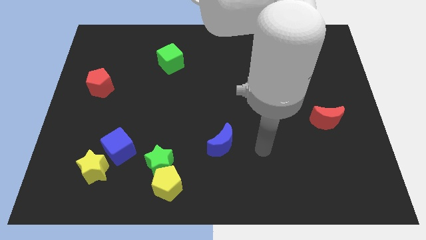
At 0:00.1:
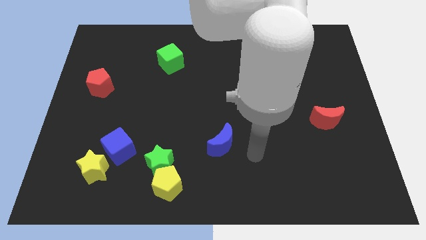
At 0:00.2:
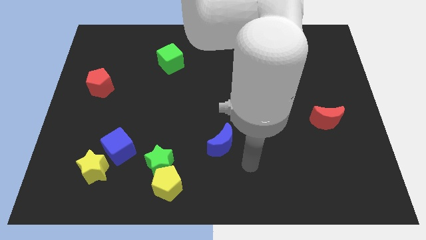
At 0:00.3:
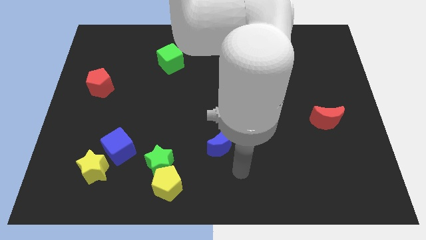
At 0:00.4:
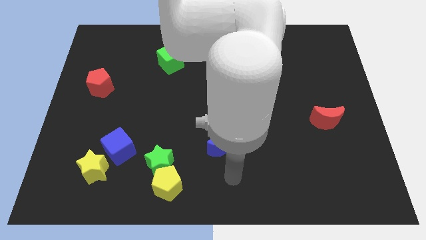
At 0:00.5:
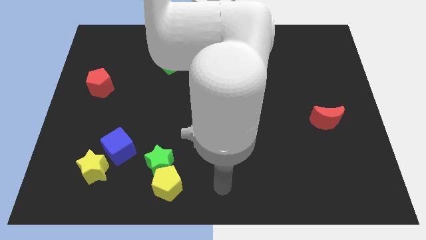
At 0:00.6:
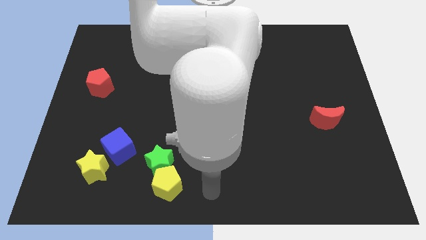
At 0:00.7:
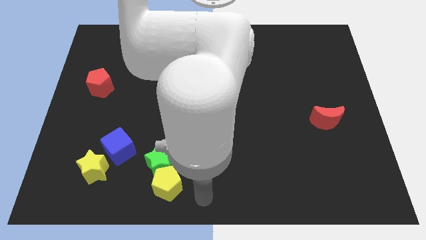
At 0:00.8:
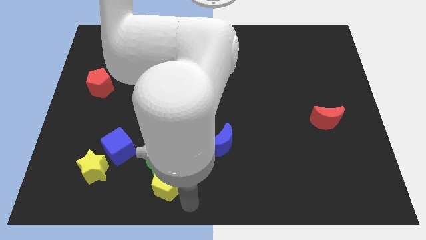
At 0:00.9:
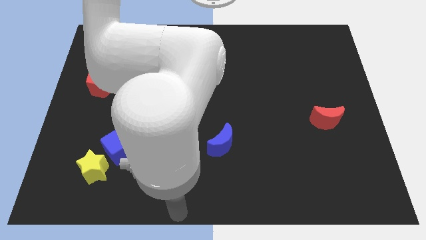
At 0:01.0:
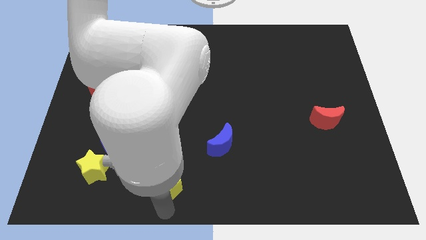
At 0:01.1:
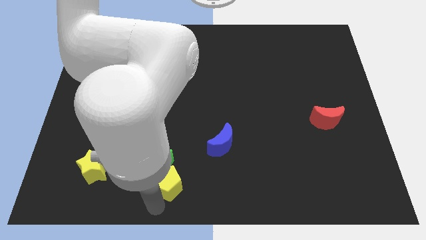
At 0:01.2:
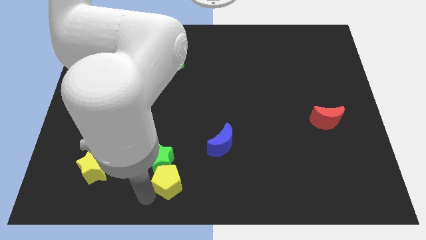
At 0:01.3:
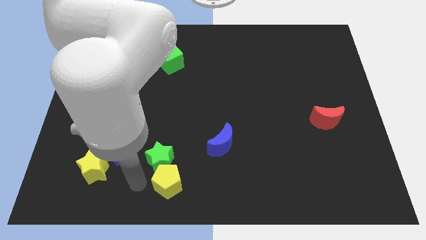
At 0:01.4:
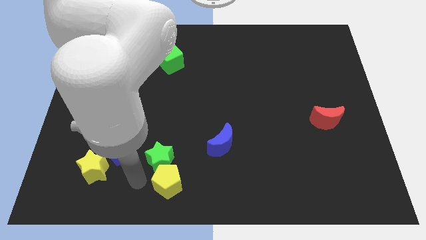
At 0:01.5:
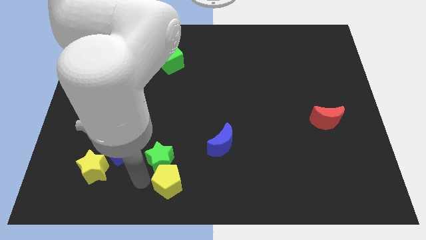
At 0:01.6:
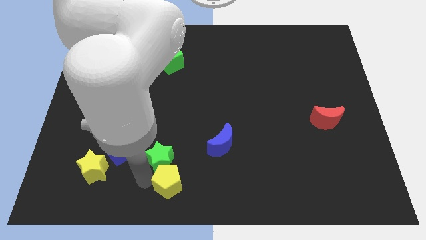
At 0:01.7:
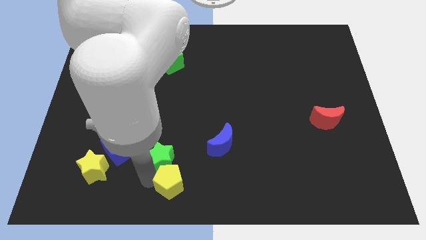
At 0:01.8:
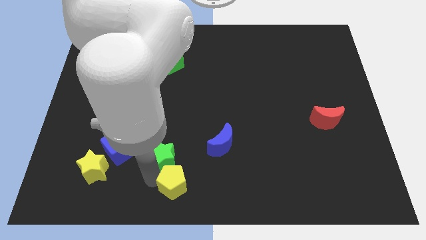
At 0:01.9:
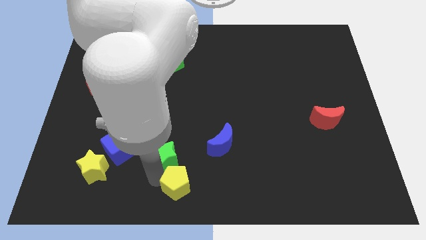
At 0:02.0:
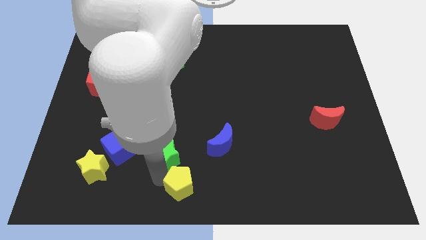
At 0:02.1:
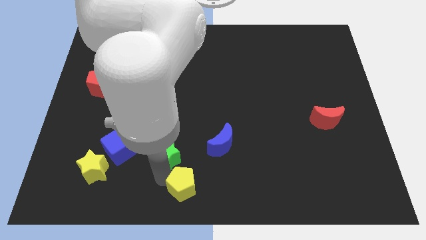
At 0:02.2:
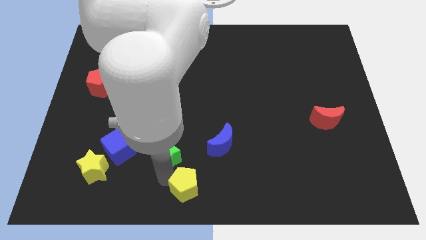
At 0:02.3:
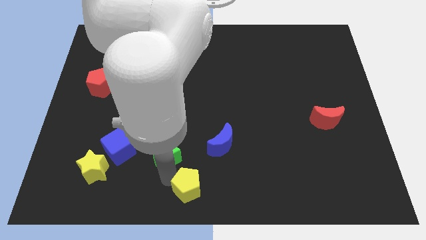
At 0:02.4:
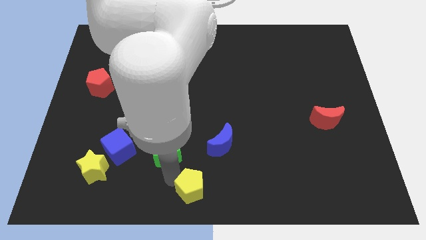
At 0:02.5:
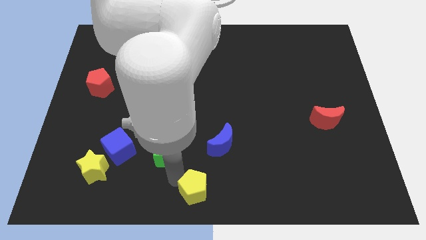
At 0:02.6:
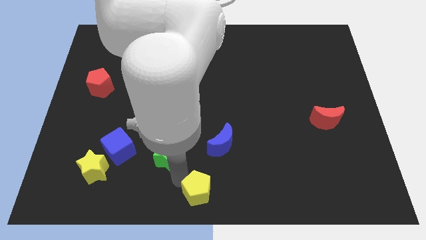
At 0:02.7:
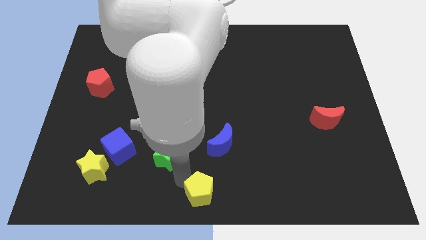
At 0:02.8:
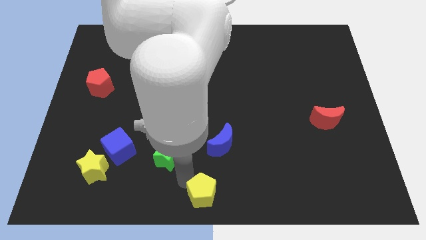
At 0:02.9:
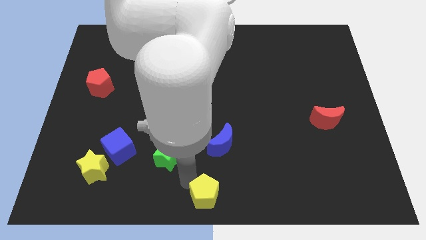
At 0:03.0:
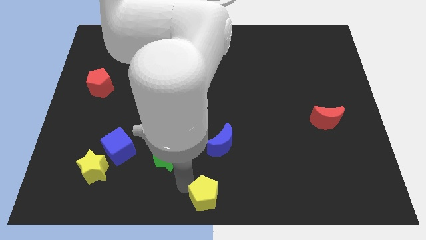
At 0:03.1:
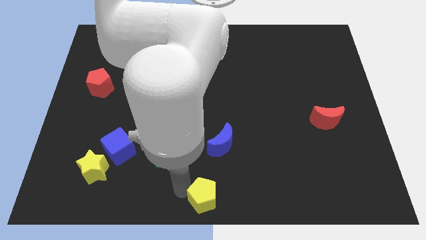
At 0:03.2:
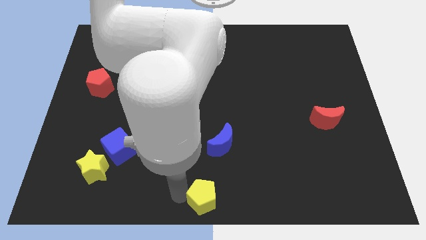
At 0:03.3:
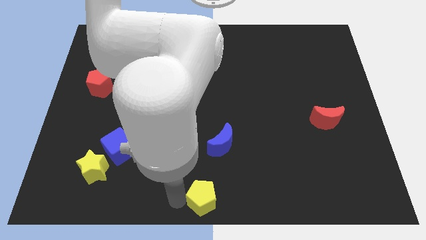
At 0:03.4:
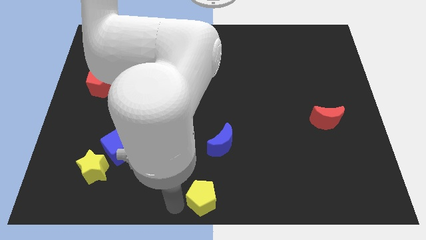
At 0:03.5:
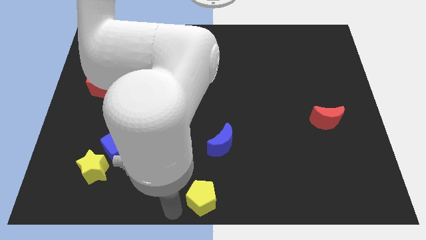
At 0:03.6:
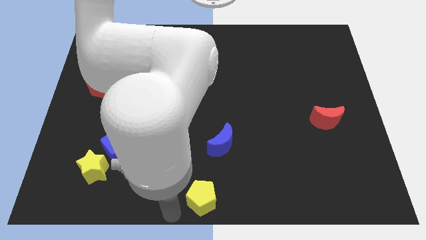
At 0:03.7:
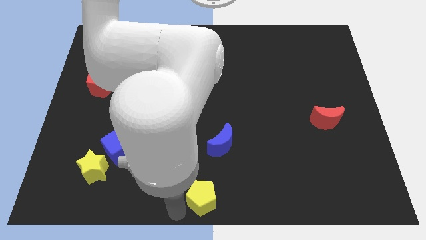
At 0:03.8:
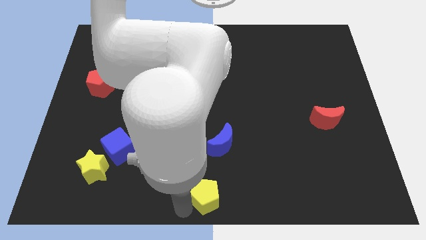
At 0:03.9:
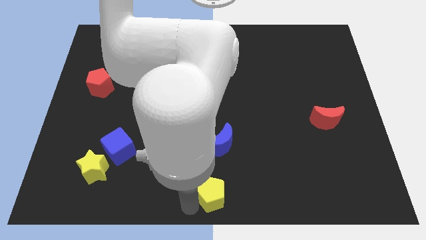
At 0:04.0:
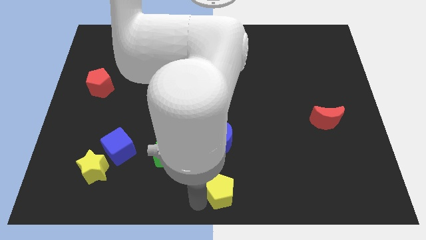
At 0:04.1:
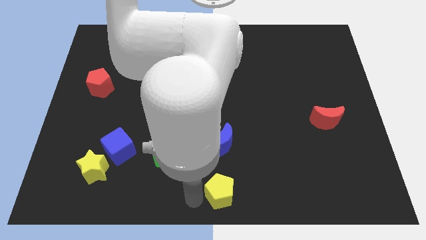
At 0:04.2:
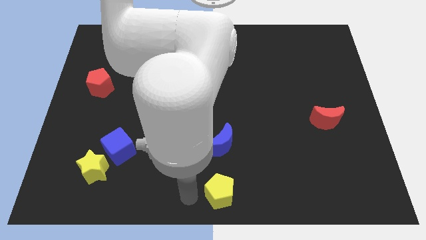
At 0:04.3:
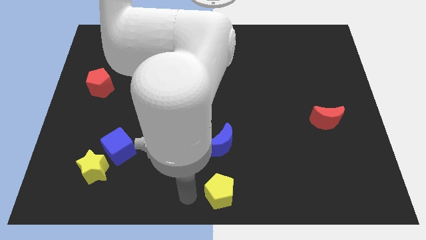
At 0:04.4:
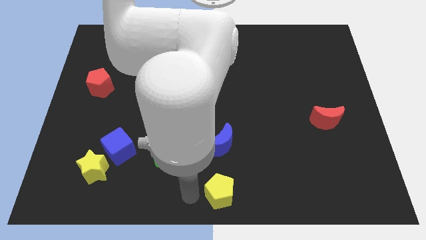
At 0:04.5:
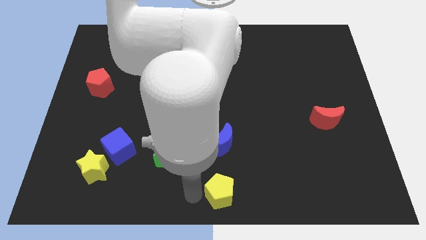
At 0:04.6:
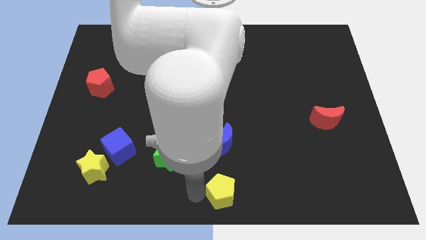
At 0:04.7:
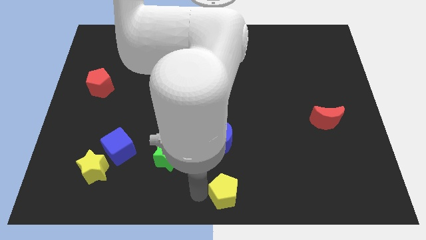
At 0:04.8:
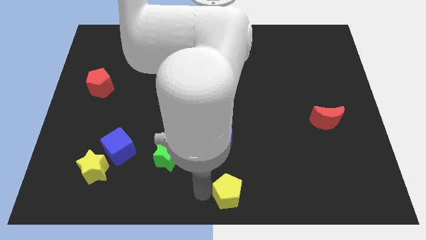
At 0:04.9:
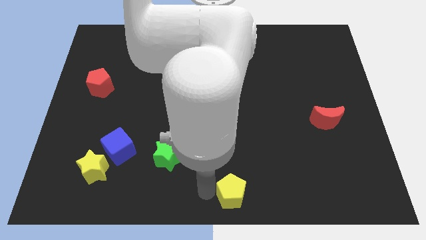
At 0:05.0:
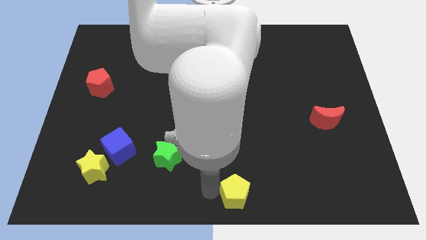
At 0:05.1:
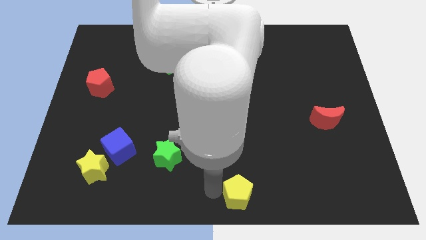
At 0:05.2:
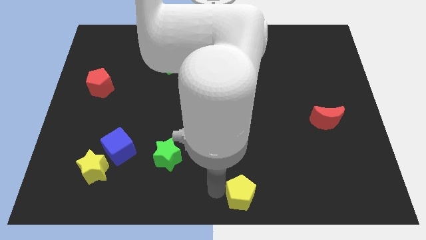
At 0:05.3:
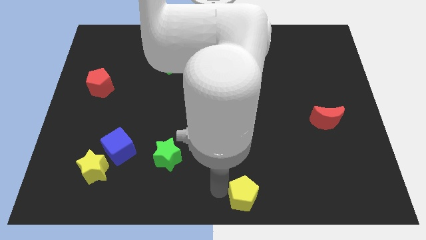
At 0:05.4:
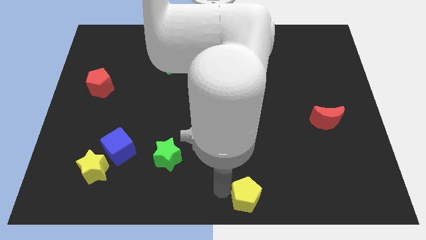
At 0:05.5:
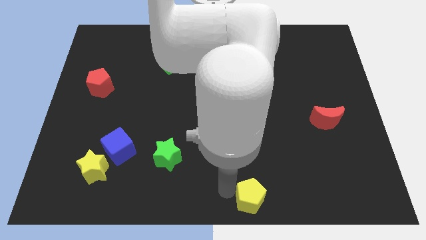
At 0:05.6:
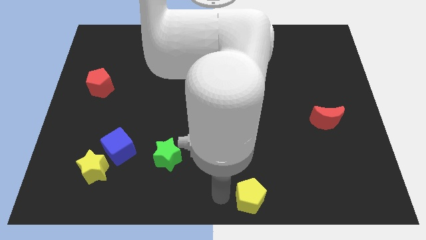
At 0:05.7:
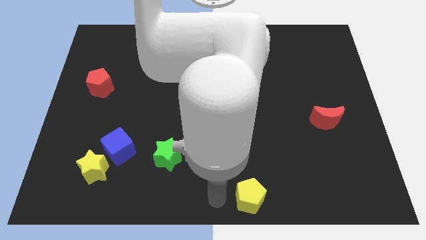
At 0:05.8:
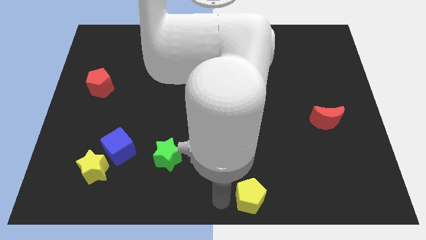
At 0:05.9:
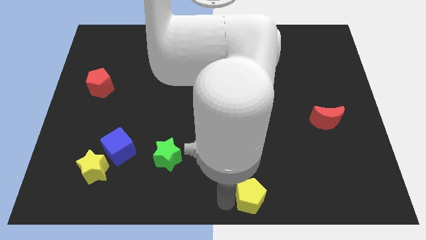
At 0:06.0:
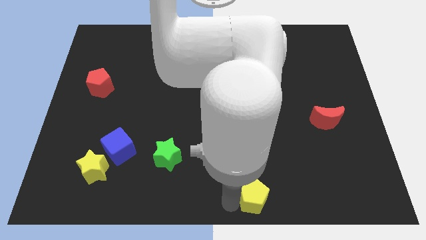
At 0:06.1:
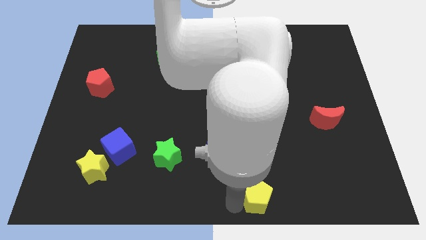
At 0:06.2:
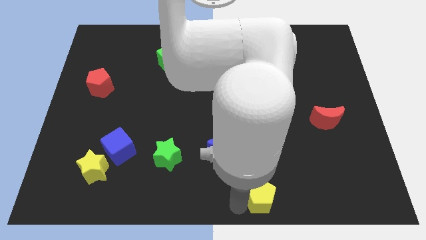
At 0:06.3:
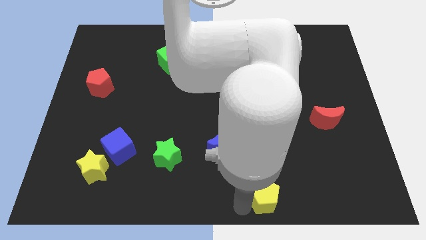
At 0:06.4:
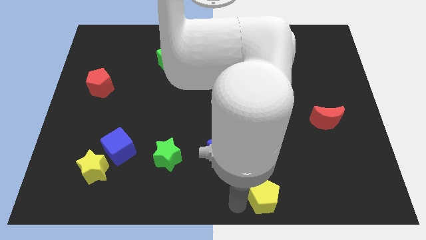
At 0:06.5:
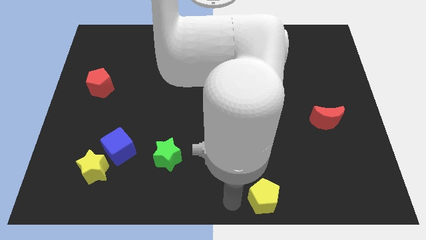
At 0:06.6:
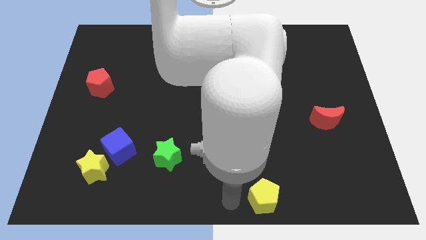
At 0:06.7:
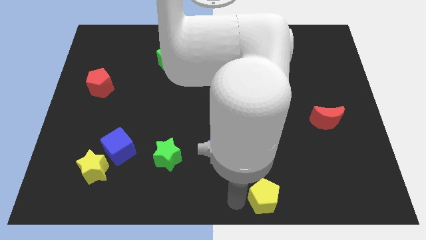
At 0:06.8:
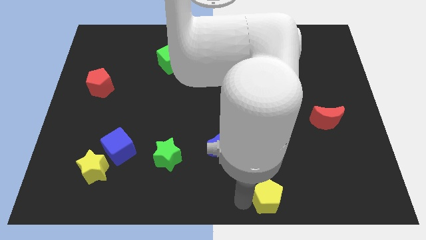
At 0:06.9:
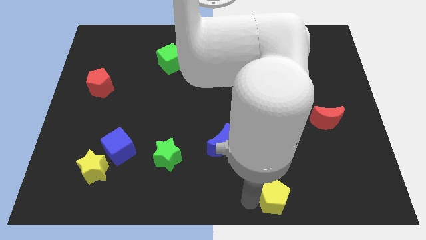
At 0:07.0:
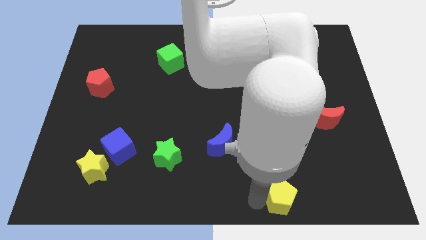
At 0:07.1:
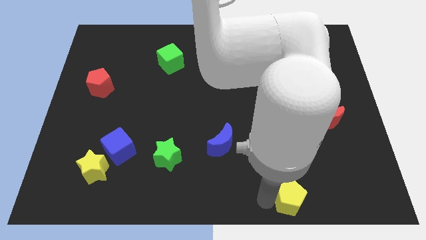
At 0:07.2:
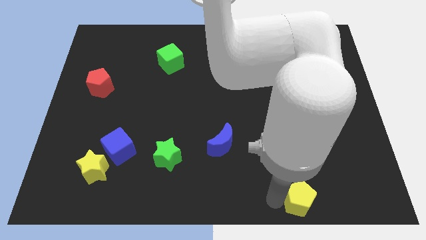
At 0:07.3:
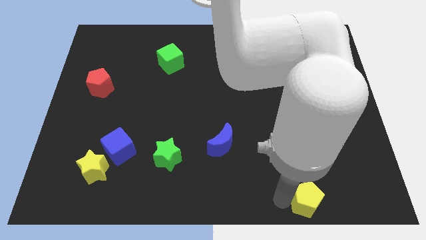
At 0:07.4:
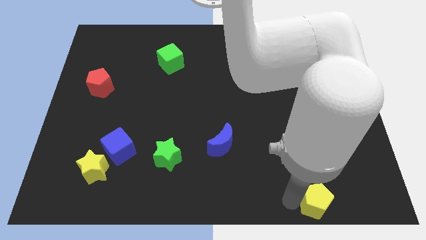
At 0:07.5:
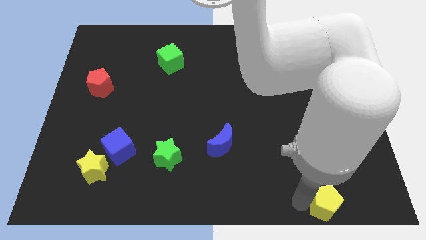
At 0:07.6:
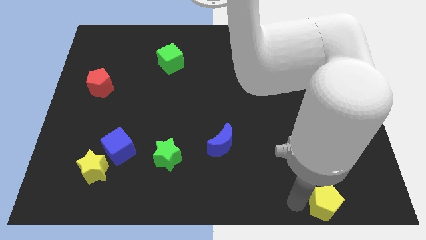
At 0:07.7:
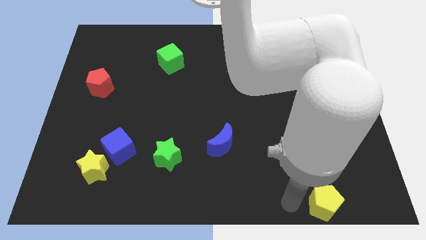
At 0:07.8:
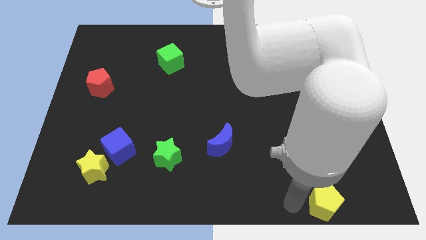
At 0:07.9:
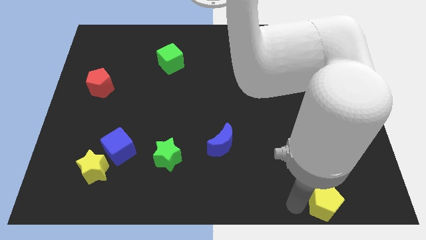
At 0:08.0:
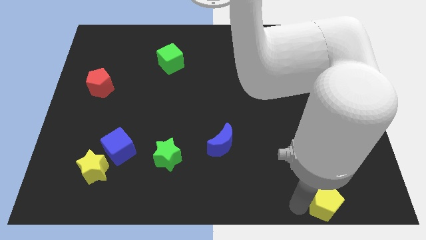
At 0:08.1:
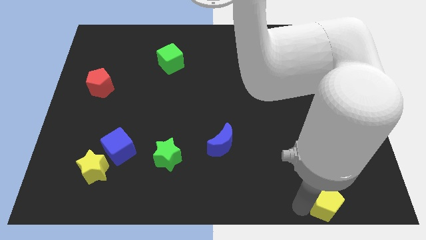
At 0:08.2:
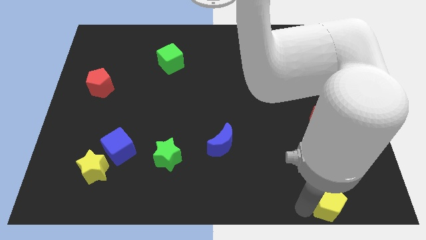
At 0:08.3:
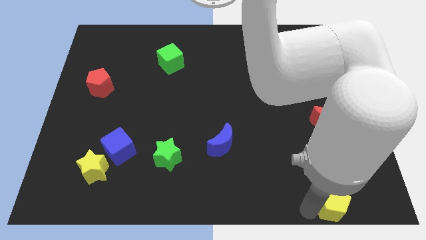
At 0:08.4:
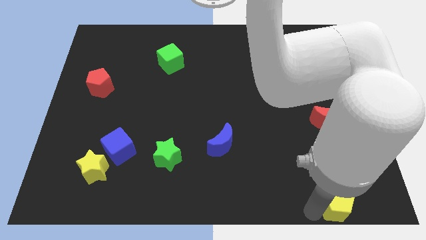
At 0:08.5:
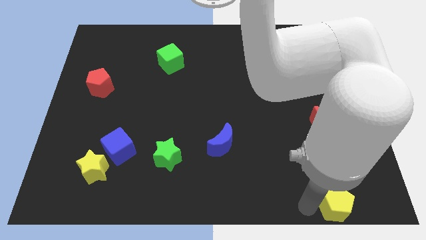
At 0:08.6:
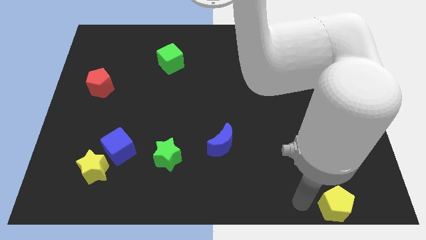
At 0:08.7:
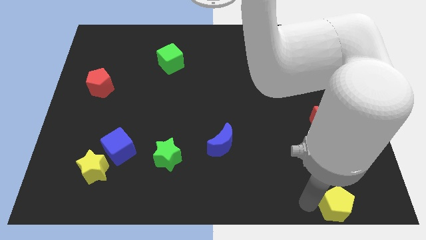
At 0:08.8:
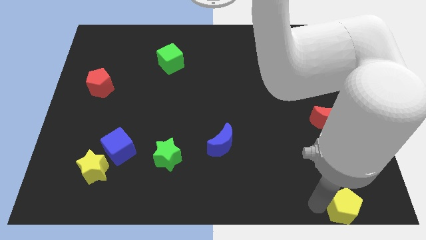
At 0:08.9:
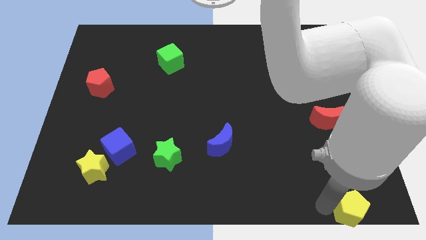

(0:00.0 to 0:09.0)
put the yellow pentagon to the bottom right corner
